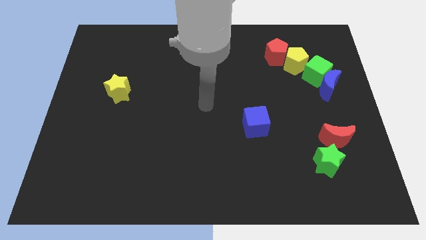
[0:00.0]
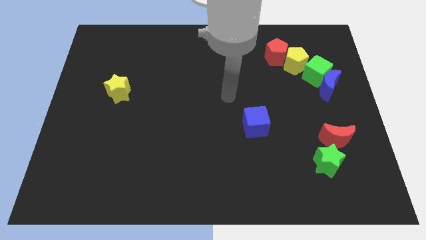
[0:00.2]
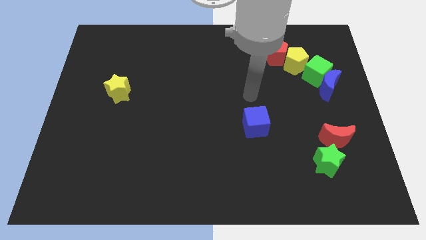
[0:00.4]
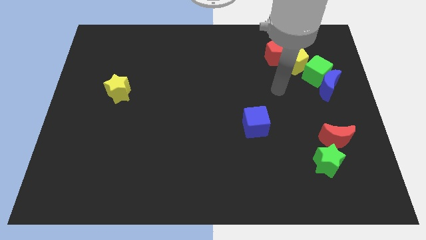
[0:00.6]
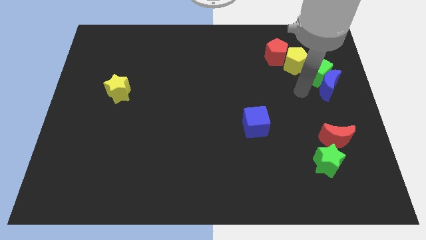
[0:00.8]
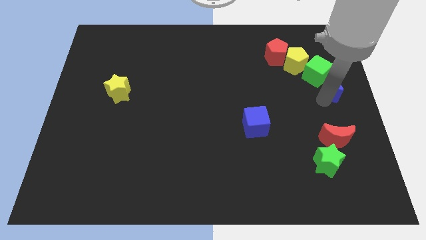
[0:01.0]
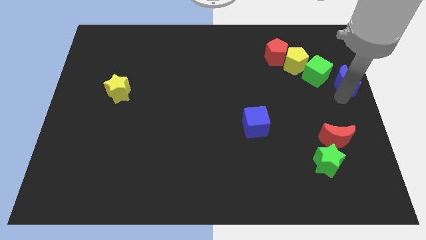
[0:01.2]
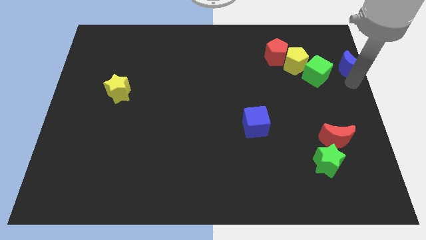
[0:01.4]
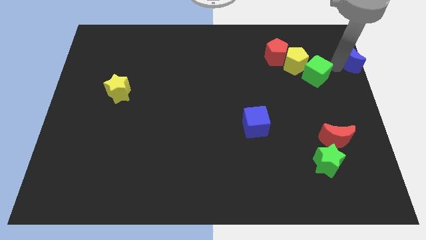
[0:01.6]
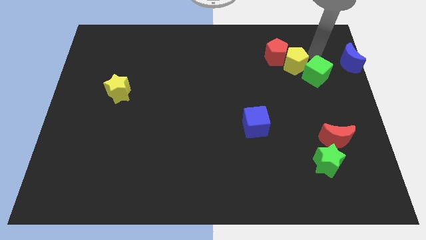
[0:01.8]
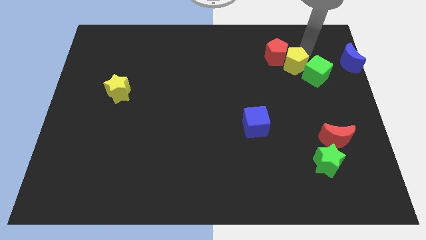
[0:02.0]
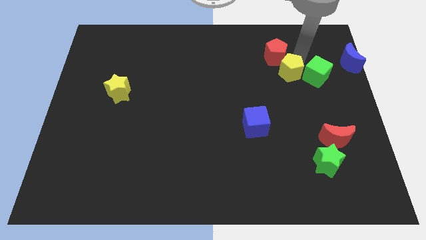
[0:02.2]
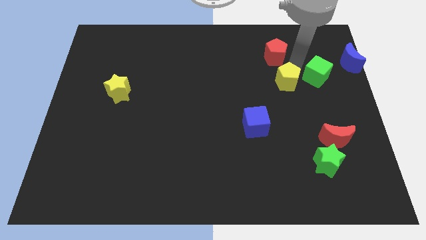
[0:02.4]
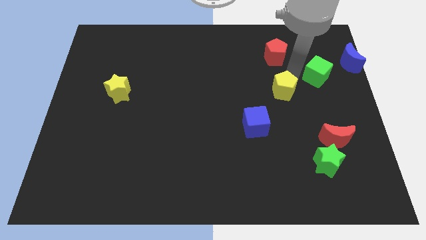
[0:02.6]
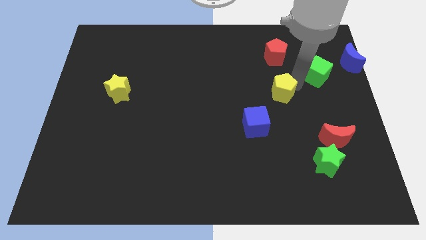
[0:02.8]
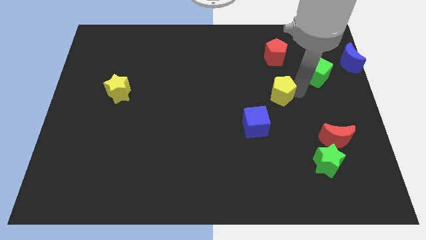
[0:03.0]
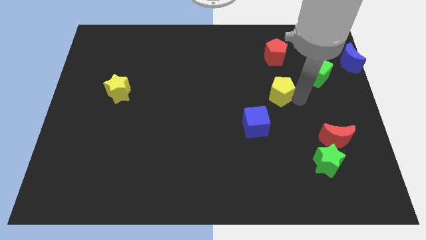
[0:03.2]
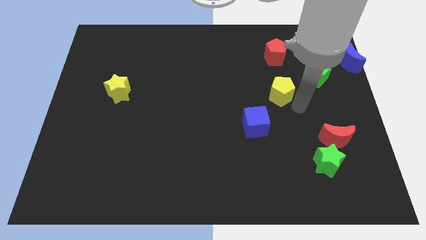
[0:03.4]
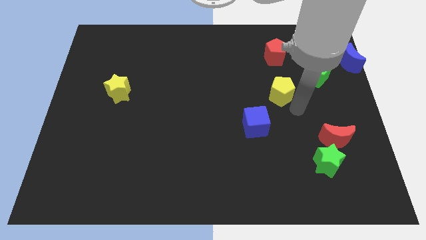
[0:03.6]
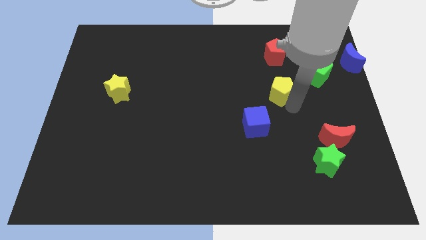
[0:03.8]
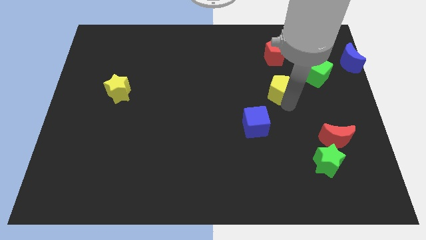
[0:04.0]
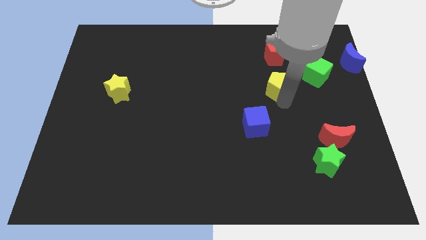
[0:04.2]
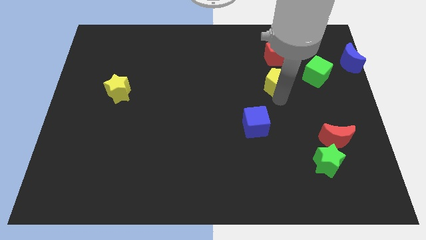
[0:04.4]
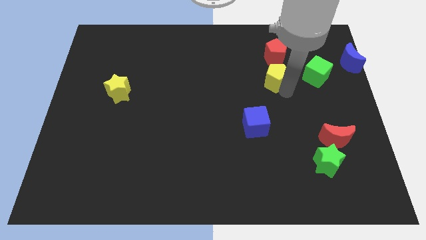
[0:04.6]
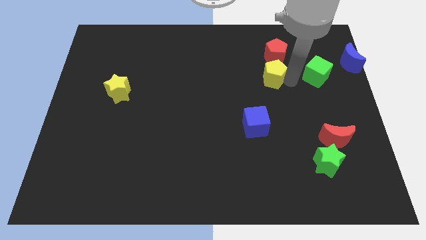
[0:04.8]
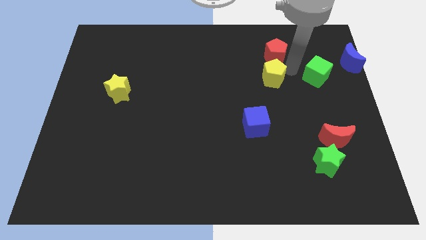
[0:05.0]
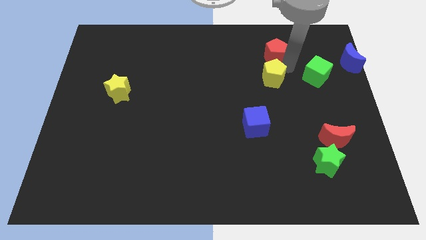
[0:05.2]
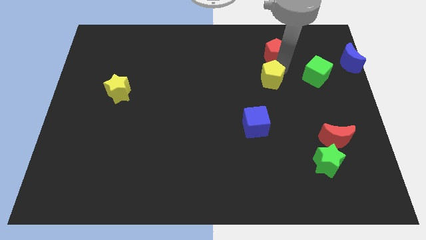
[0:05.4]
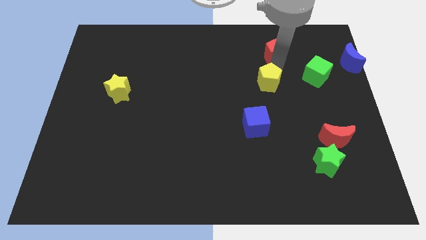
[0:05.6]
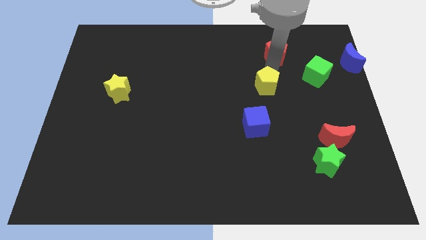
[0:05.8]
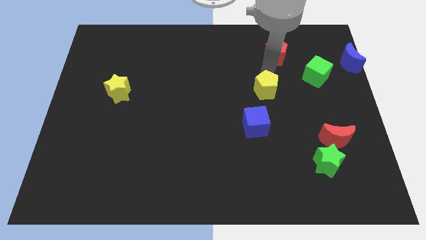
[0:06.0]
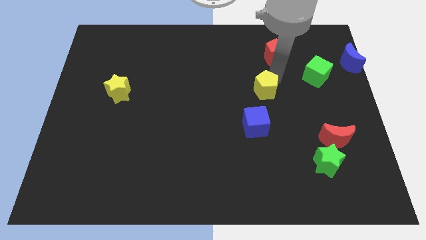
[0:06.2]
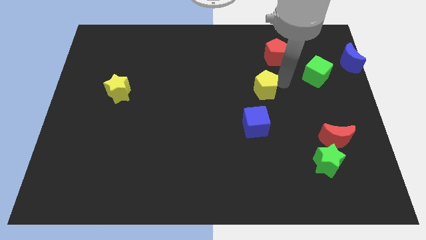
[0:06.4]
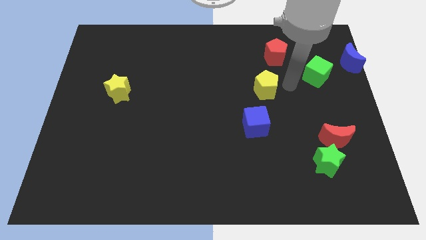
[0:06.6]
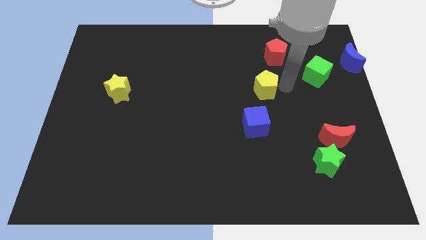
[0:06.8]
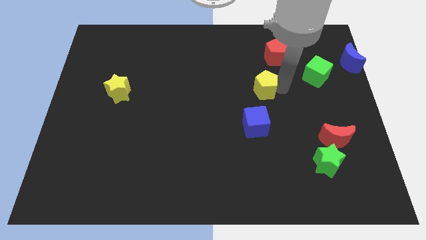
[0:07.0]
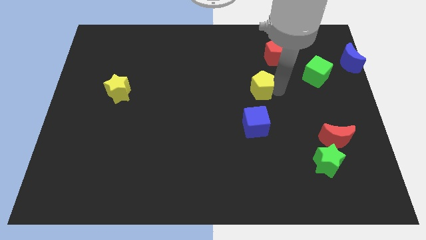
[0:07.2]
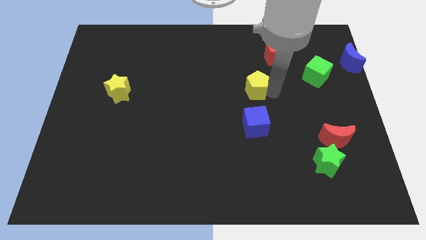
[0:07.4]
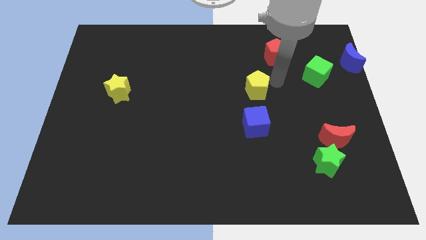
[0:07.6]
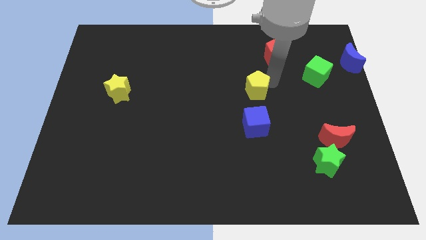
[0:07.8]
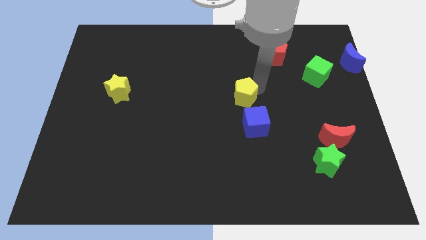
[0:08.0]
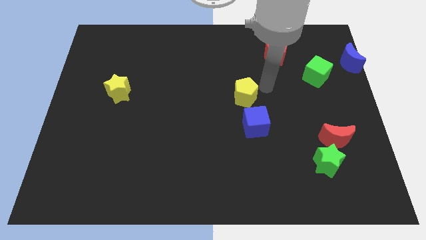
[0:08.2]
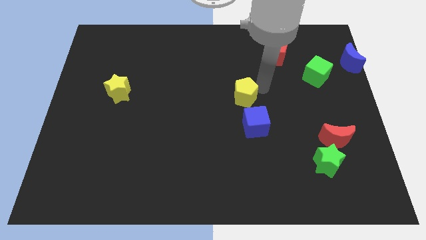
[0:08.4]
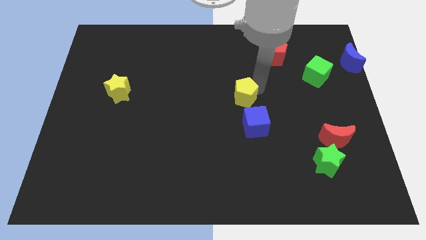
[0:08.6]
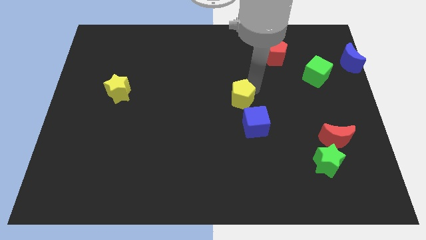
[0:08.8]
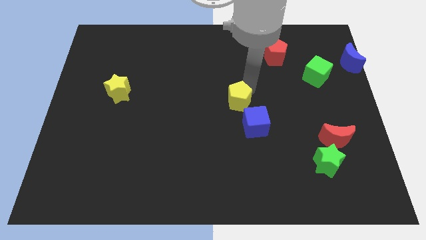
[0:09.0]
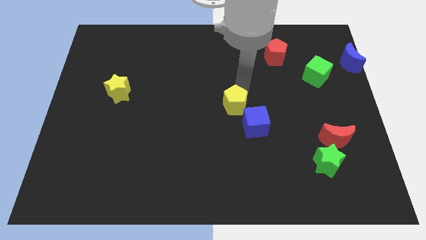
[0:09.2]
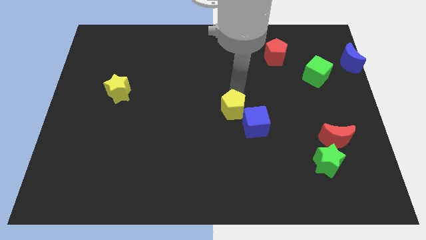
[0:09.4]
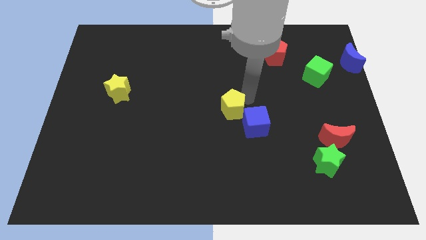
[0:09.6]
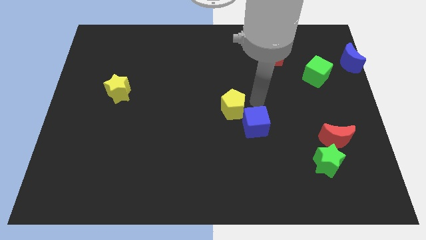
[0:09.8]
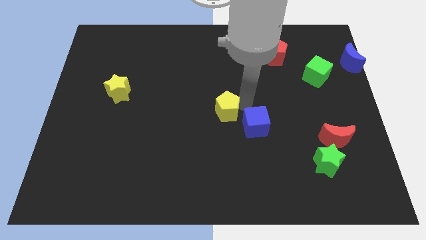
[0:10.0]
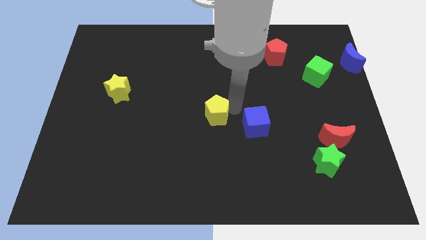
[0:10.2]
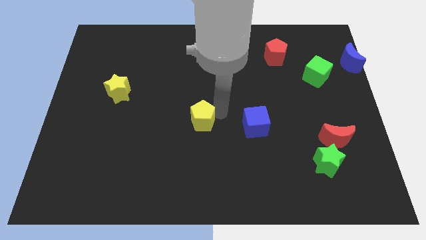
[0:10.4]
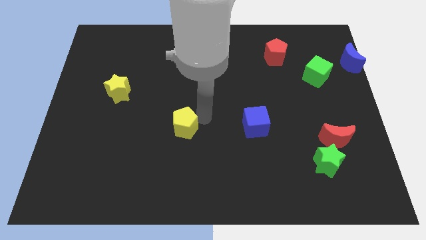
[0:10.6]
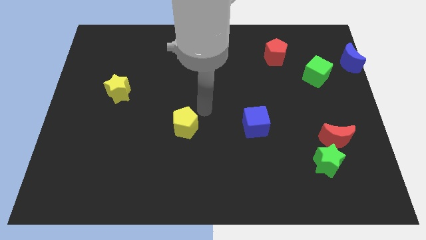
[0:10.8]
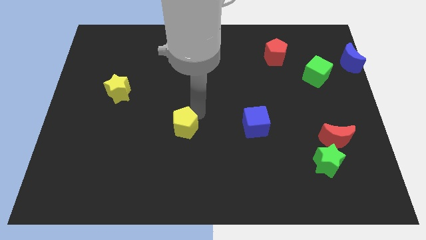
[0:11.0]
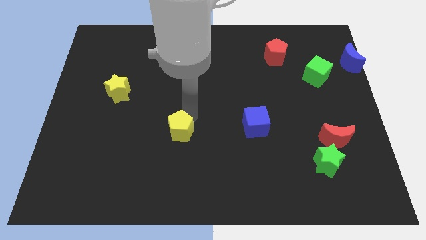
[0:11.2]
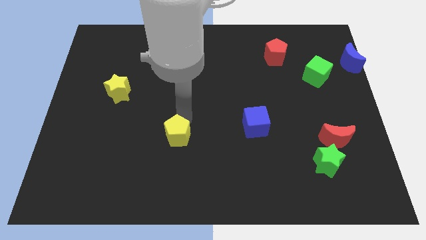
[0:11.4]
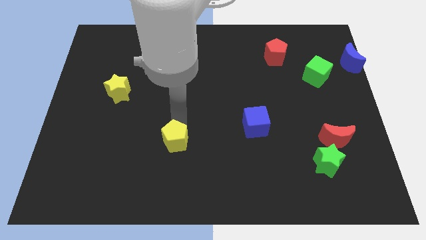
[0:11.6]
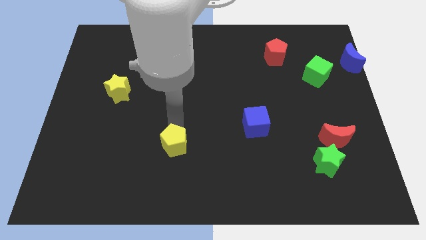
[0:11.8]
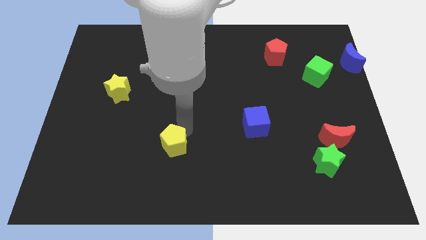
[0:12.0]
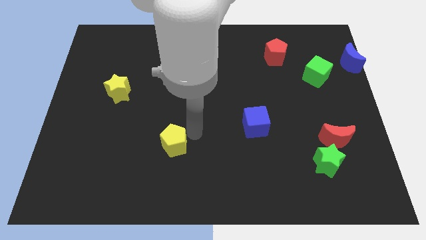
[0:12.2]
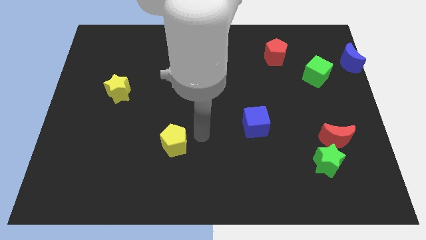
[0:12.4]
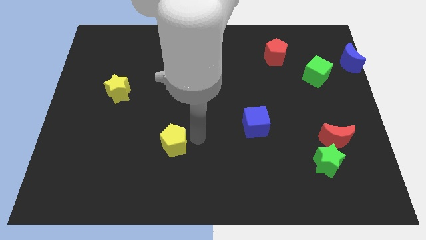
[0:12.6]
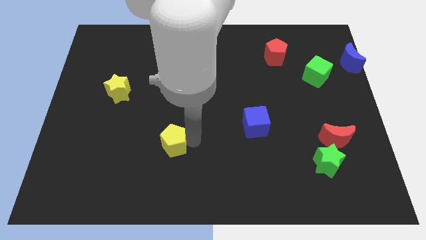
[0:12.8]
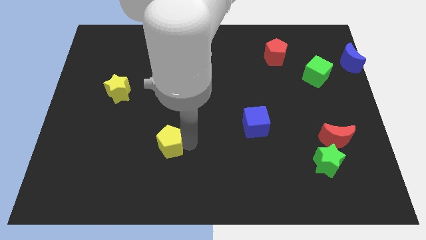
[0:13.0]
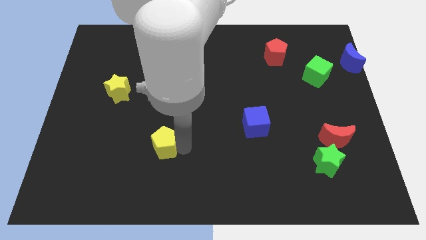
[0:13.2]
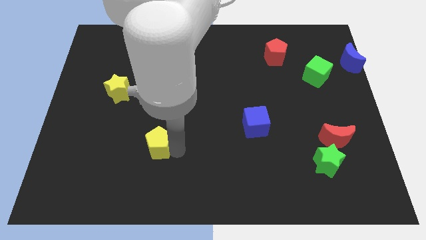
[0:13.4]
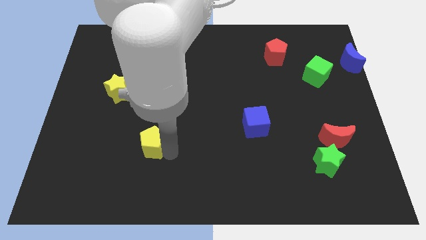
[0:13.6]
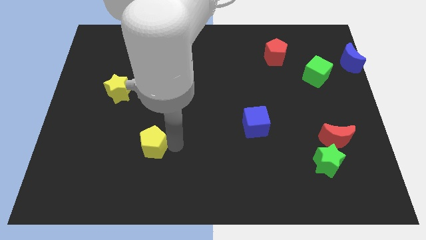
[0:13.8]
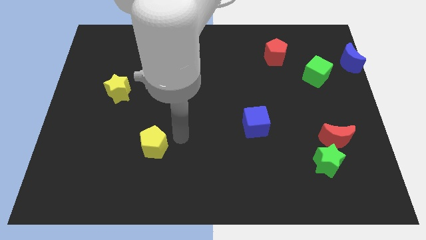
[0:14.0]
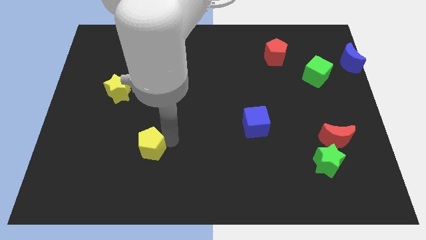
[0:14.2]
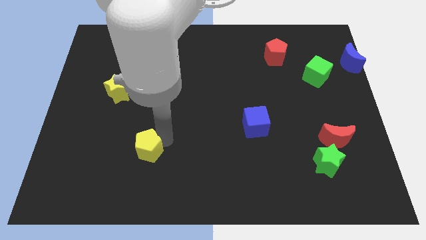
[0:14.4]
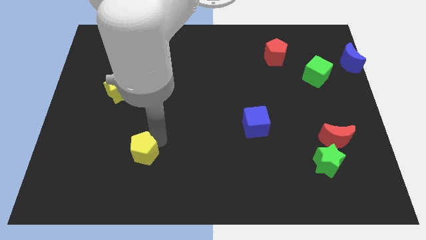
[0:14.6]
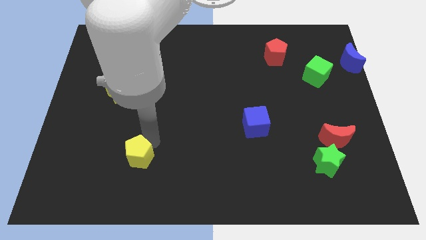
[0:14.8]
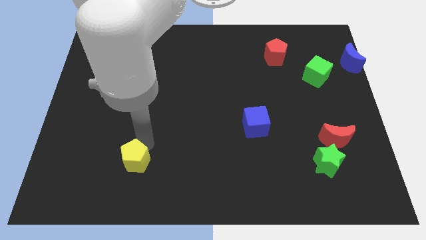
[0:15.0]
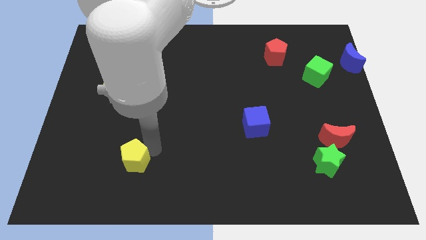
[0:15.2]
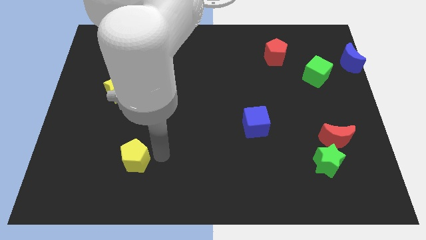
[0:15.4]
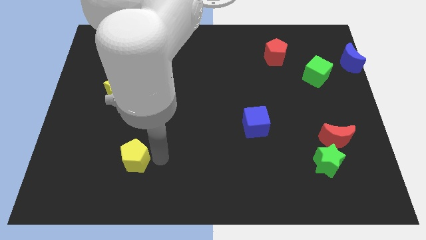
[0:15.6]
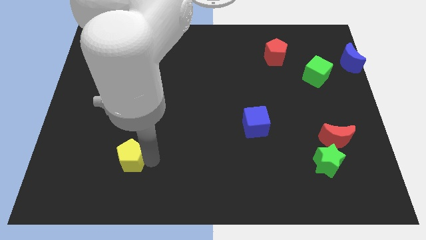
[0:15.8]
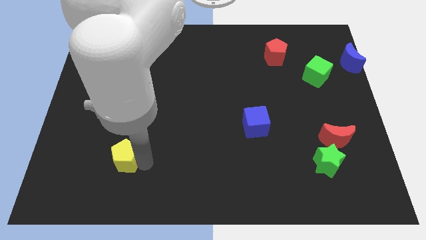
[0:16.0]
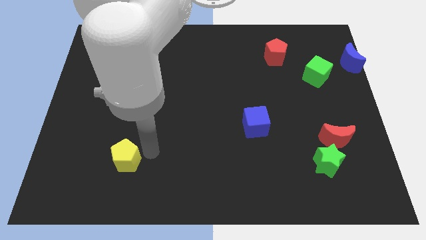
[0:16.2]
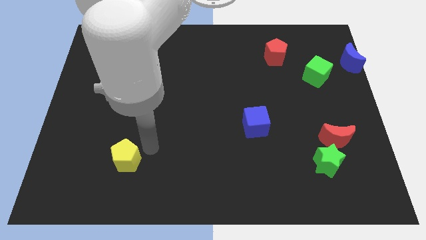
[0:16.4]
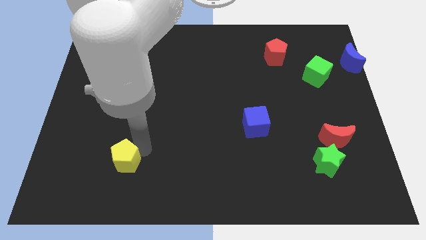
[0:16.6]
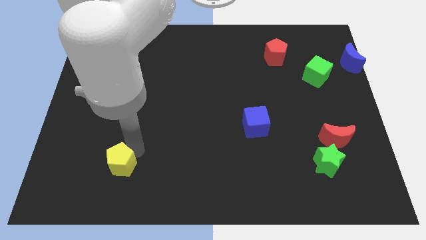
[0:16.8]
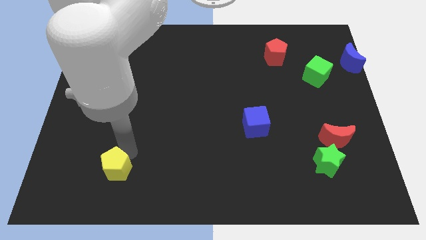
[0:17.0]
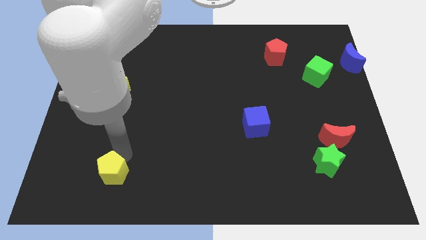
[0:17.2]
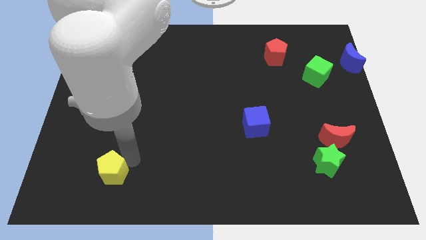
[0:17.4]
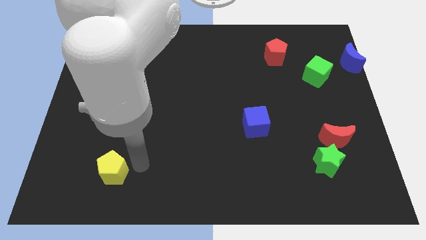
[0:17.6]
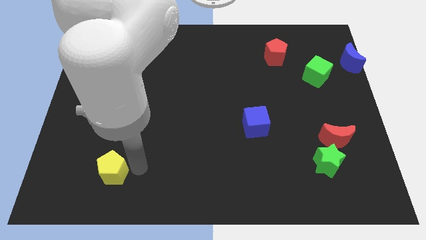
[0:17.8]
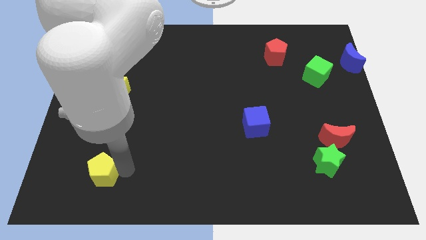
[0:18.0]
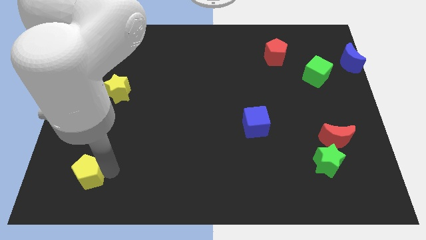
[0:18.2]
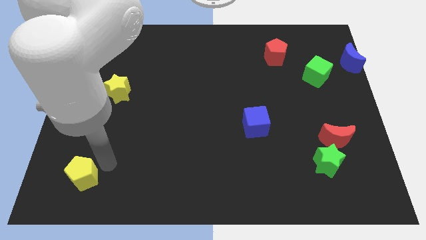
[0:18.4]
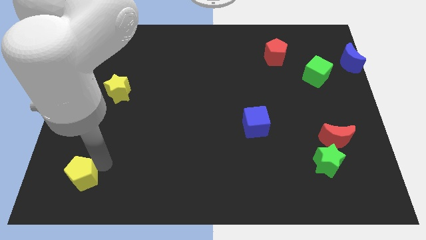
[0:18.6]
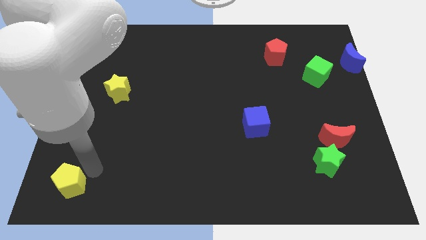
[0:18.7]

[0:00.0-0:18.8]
put the yellow pentagon to the bottom left of the board
